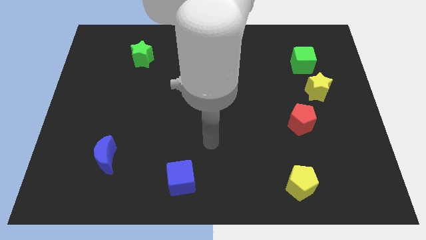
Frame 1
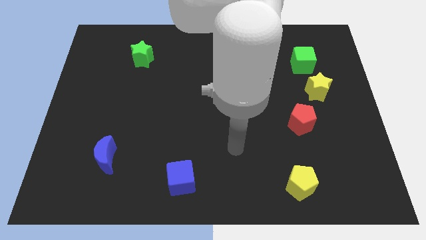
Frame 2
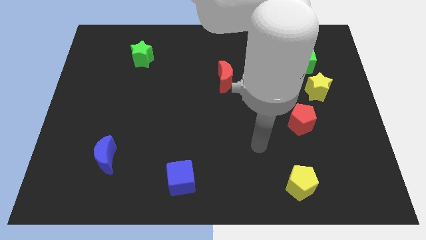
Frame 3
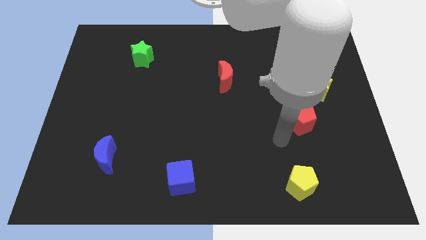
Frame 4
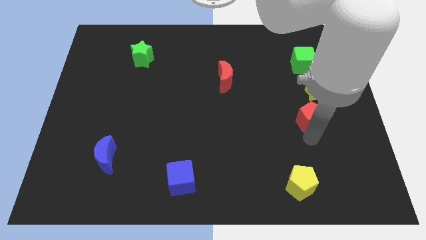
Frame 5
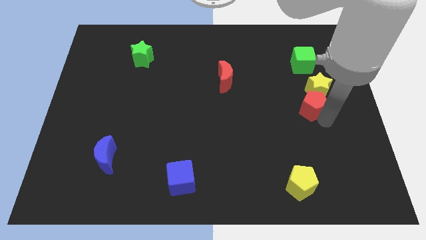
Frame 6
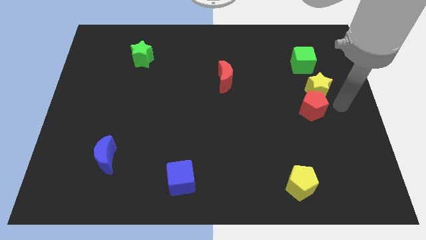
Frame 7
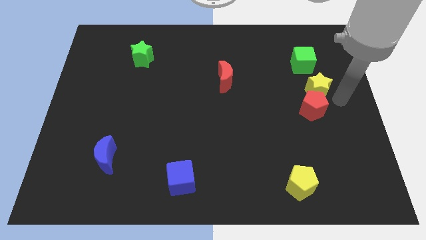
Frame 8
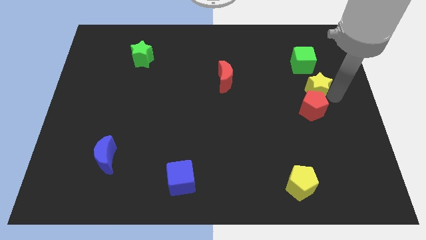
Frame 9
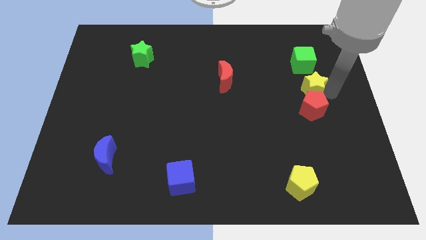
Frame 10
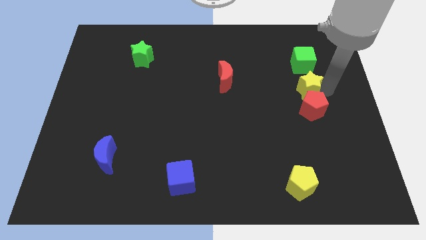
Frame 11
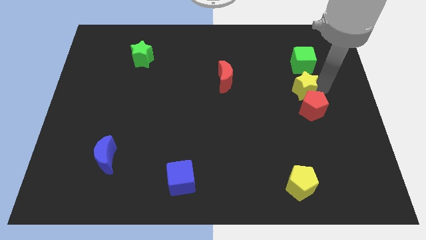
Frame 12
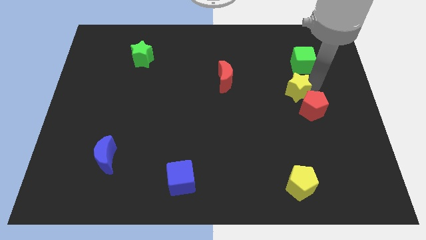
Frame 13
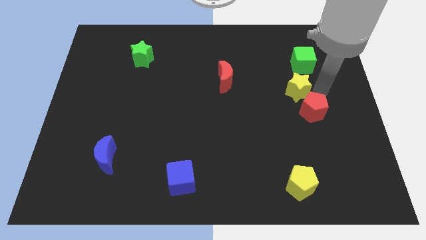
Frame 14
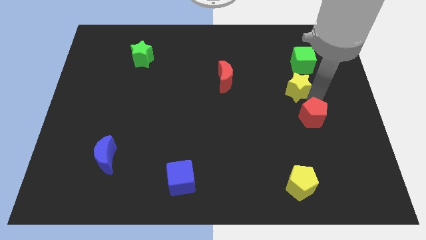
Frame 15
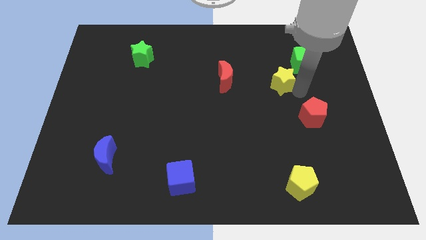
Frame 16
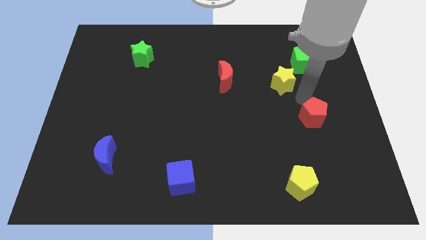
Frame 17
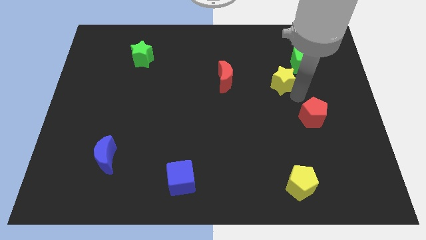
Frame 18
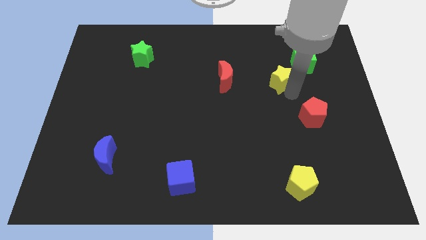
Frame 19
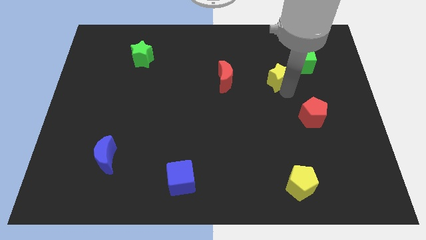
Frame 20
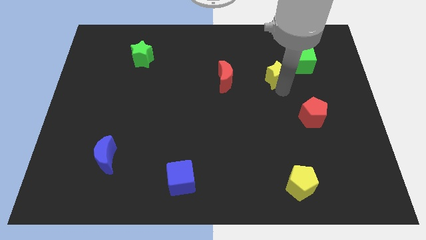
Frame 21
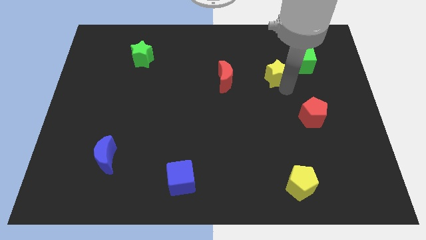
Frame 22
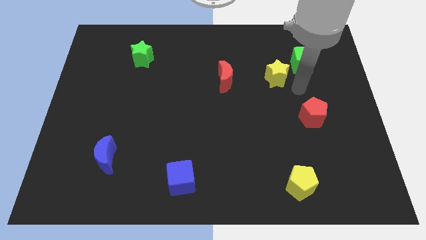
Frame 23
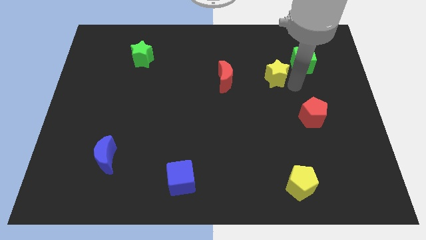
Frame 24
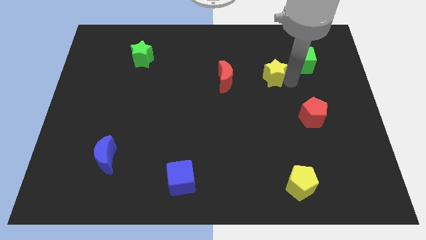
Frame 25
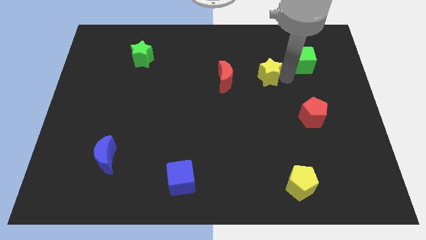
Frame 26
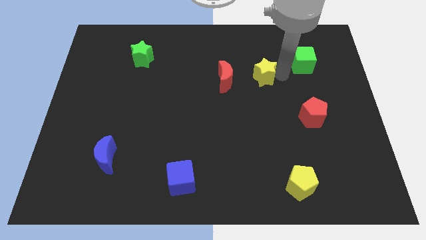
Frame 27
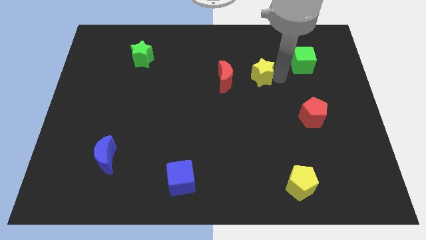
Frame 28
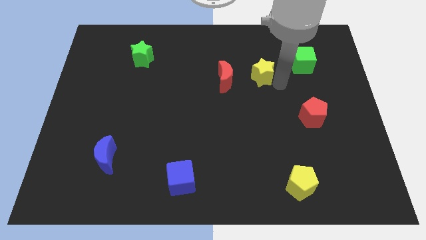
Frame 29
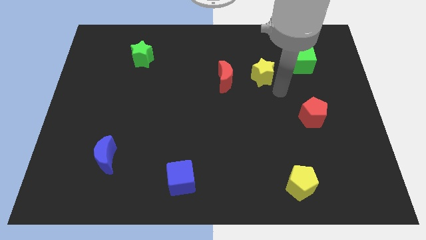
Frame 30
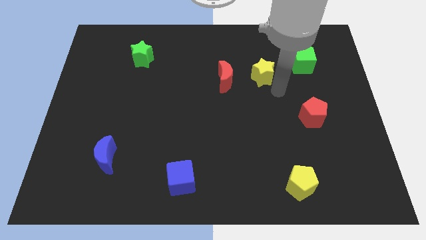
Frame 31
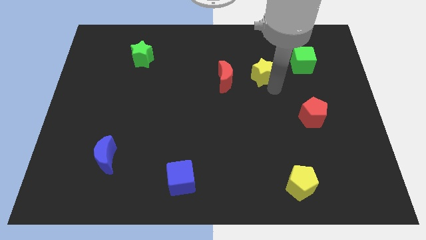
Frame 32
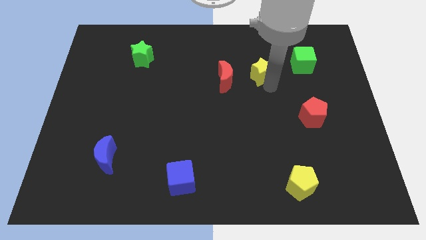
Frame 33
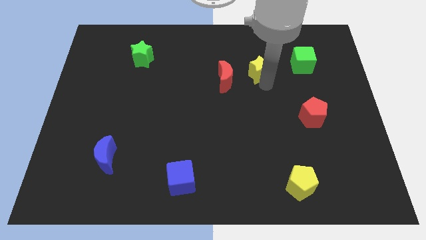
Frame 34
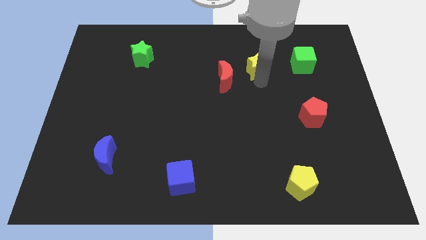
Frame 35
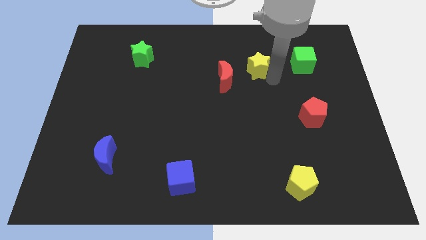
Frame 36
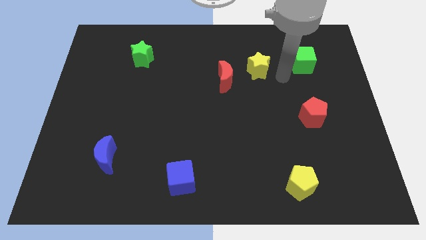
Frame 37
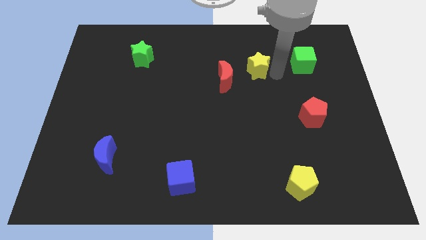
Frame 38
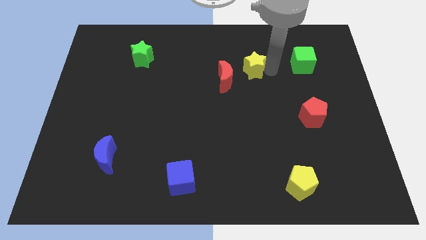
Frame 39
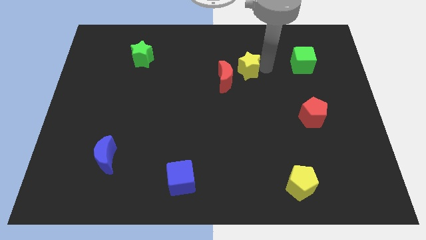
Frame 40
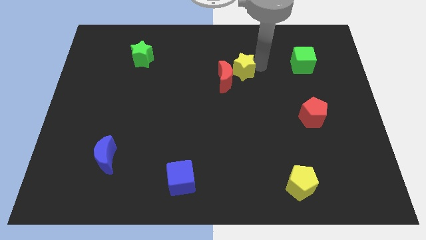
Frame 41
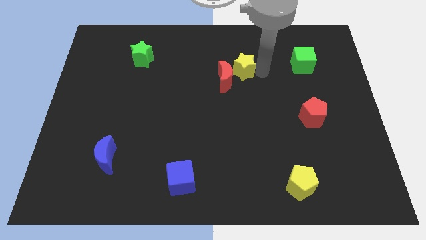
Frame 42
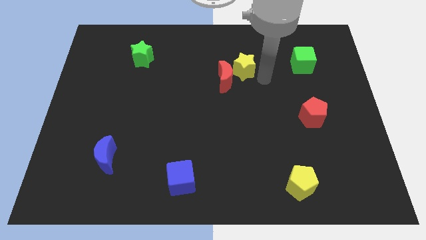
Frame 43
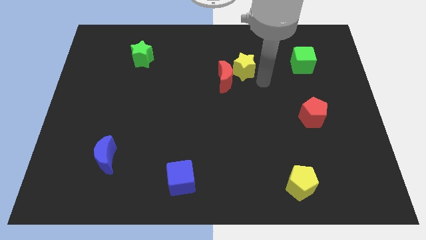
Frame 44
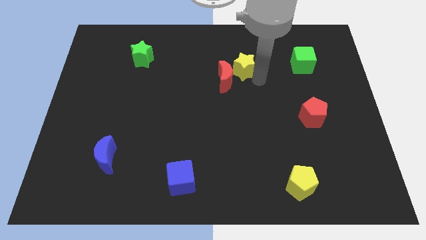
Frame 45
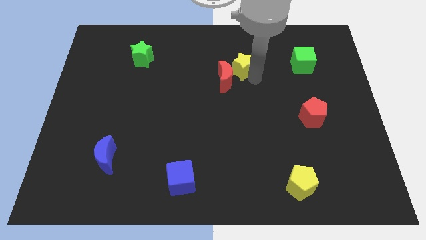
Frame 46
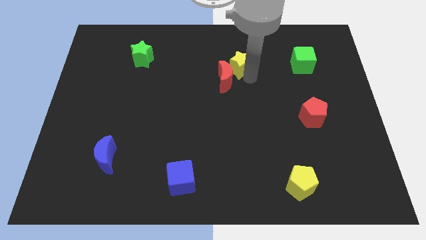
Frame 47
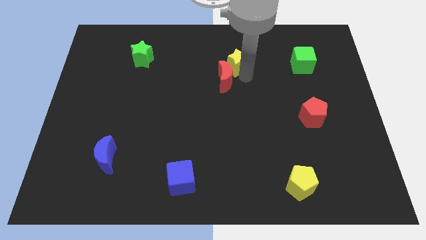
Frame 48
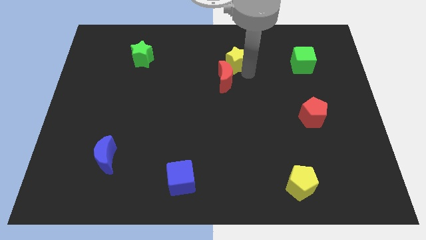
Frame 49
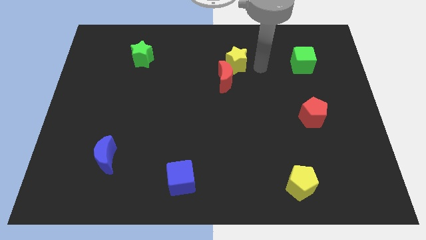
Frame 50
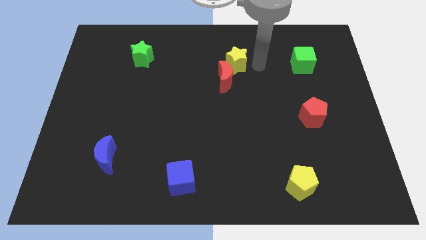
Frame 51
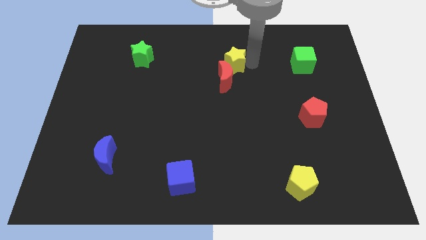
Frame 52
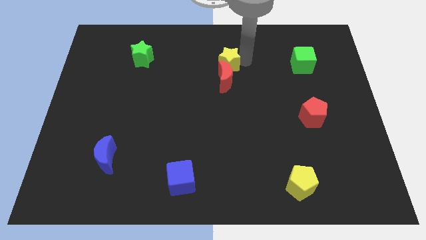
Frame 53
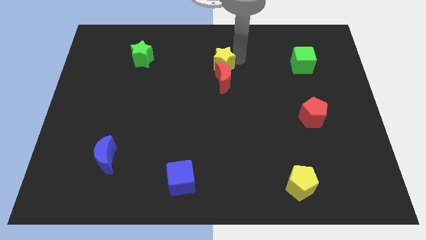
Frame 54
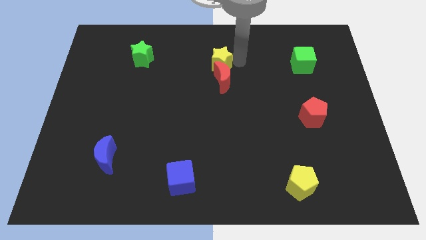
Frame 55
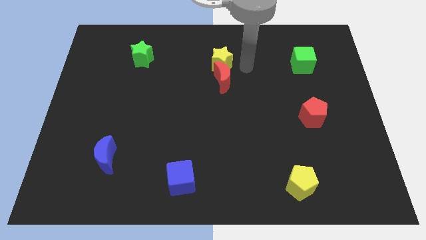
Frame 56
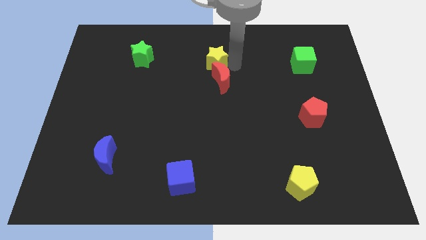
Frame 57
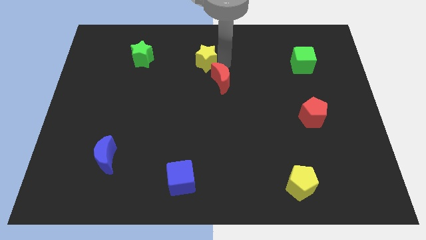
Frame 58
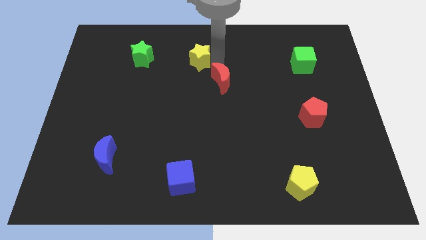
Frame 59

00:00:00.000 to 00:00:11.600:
slide the yellow star to the right of the green star

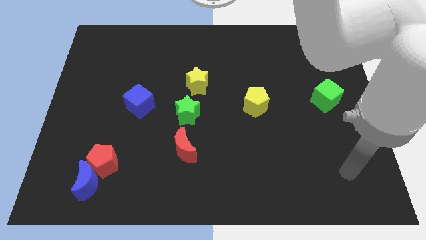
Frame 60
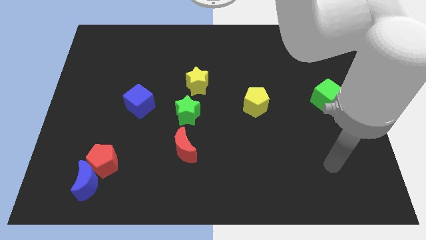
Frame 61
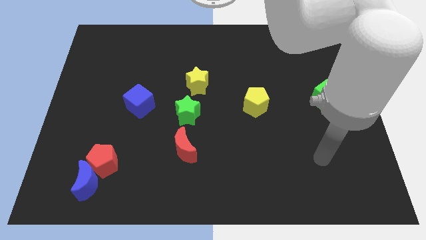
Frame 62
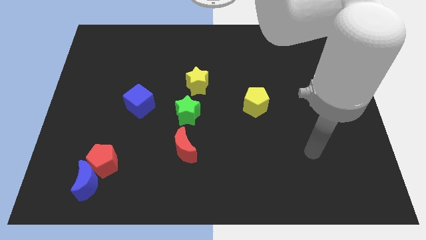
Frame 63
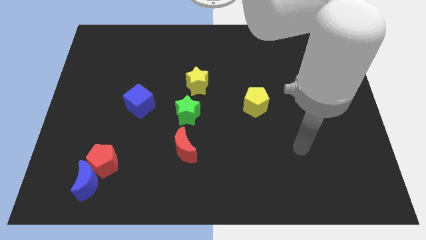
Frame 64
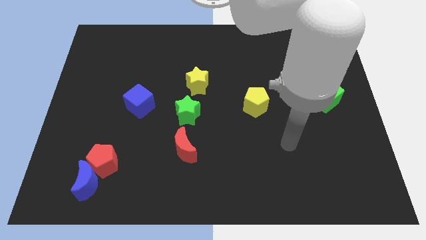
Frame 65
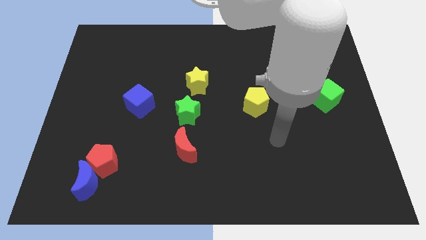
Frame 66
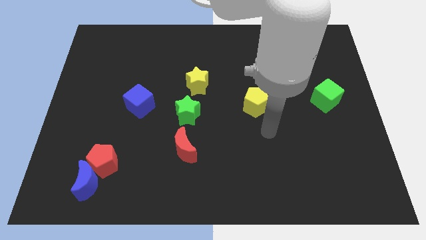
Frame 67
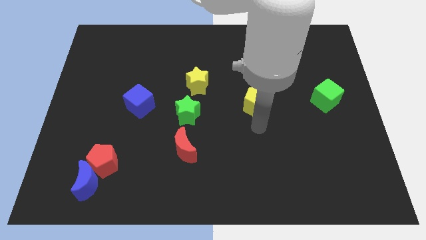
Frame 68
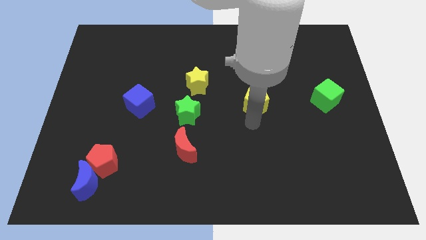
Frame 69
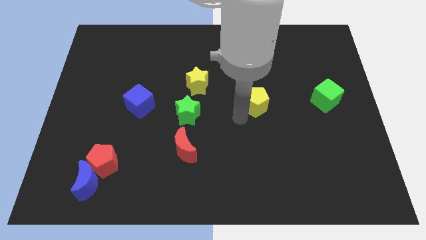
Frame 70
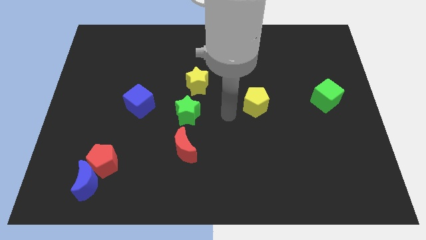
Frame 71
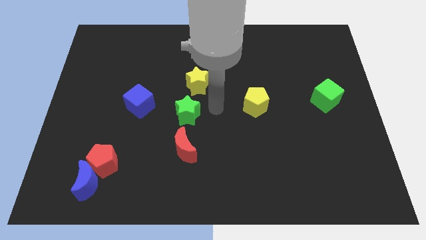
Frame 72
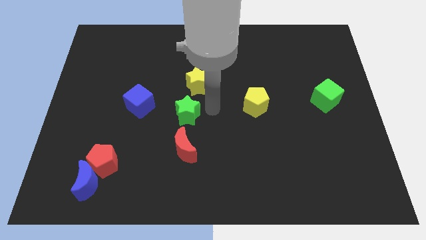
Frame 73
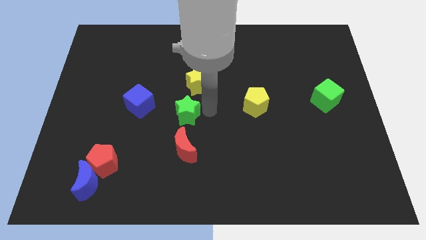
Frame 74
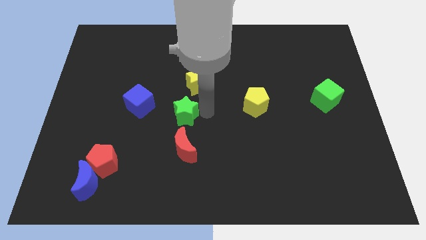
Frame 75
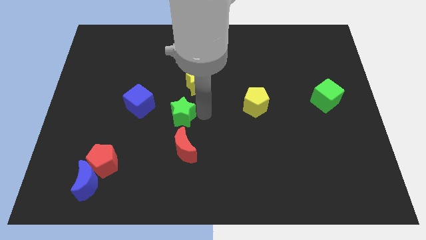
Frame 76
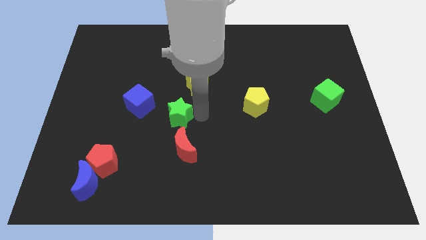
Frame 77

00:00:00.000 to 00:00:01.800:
move the green star to the bottom right side of the blue cube
